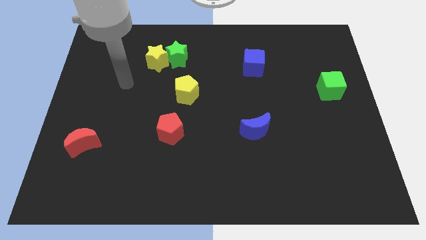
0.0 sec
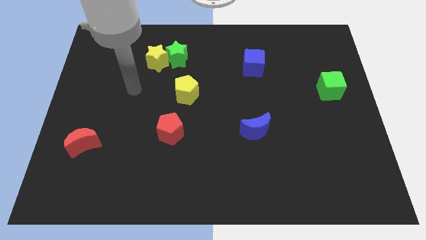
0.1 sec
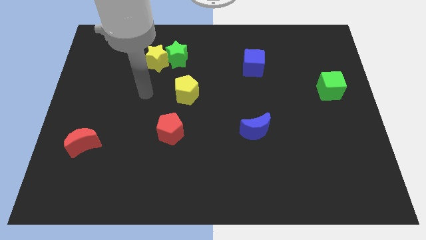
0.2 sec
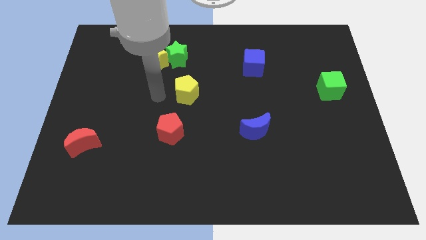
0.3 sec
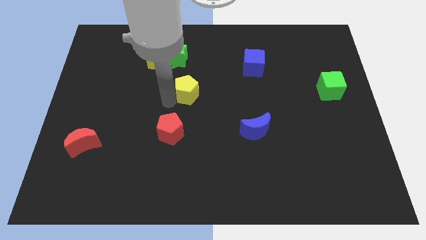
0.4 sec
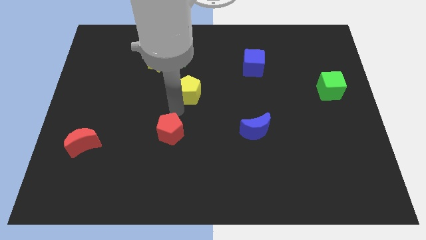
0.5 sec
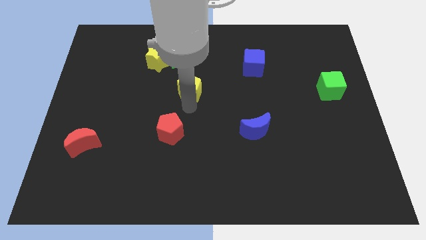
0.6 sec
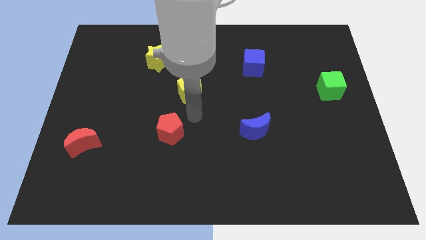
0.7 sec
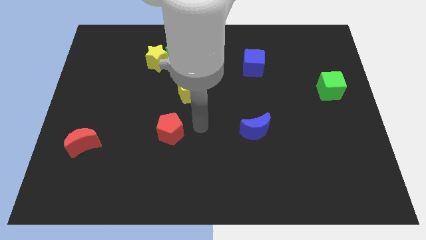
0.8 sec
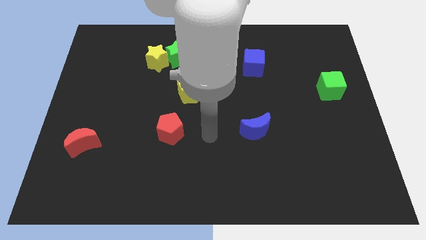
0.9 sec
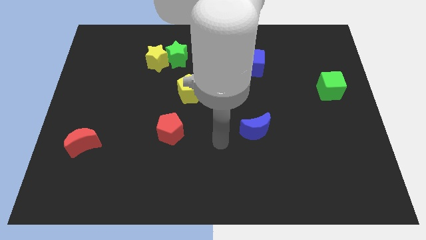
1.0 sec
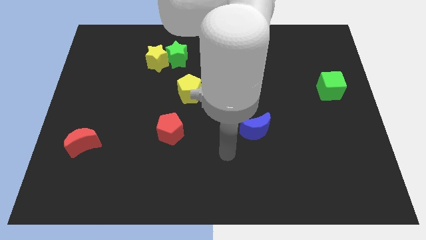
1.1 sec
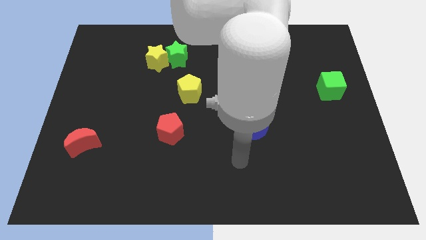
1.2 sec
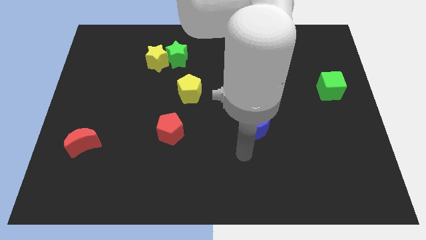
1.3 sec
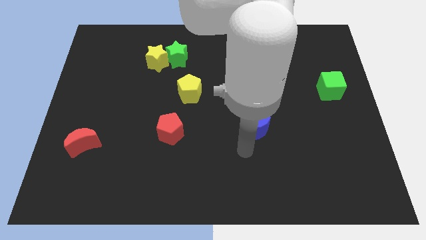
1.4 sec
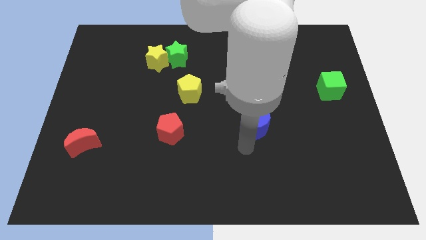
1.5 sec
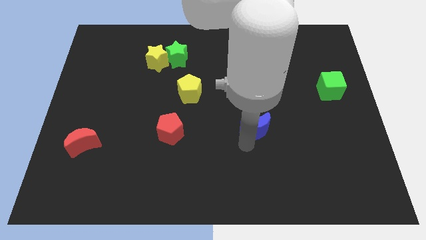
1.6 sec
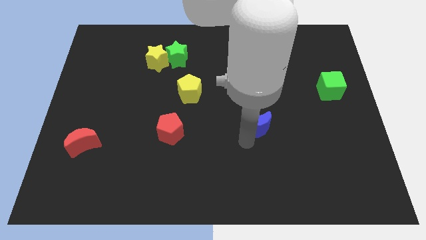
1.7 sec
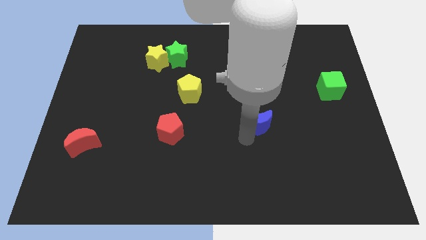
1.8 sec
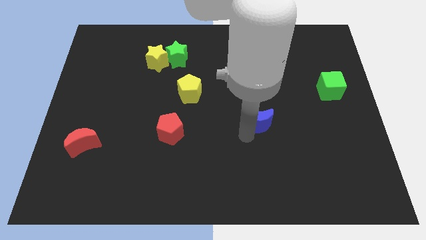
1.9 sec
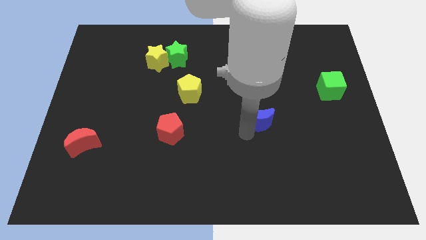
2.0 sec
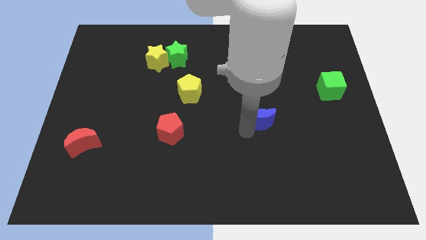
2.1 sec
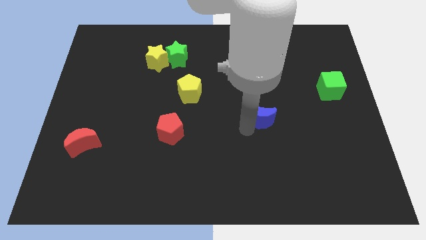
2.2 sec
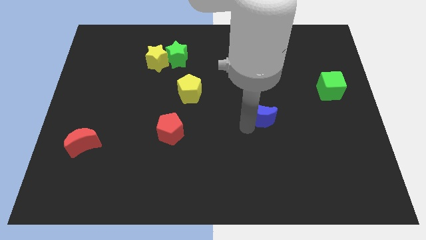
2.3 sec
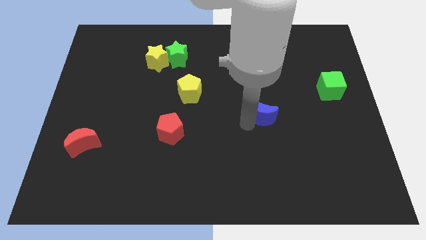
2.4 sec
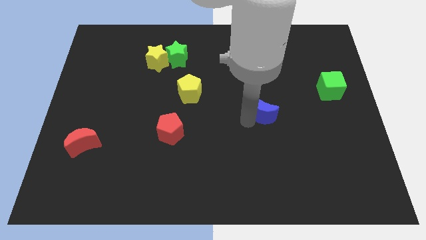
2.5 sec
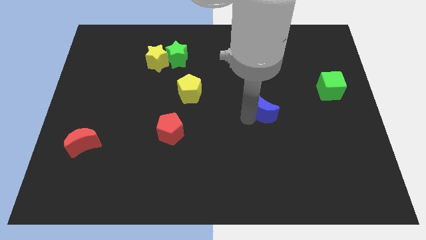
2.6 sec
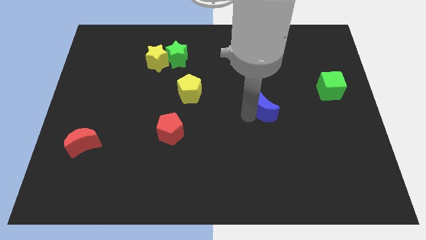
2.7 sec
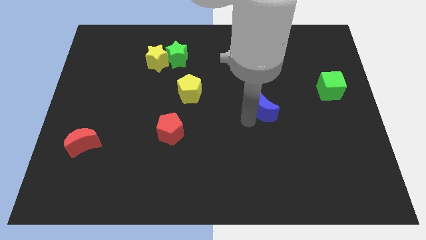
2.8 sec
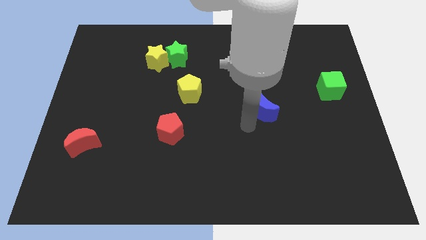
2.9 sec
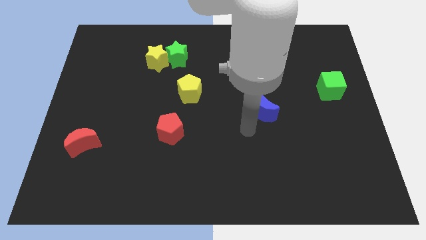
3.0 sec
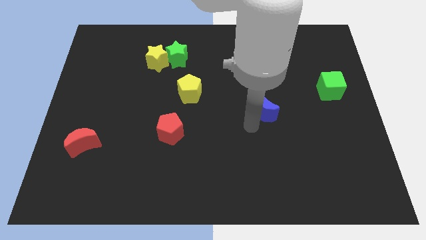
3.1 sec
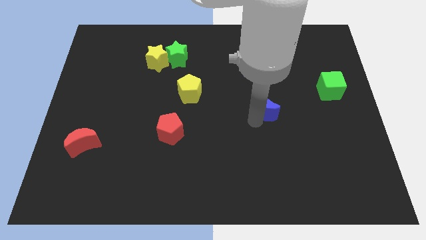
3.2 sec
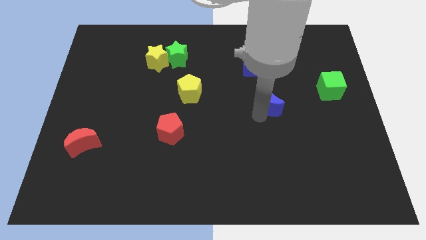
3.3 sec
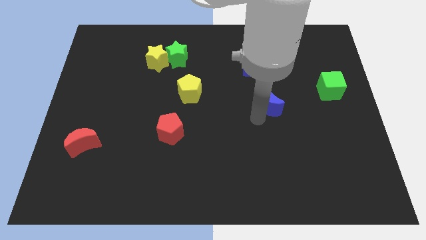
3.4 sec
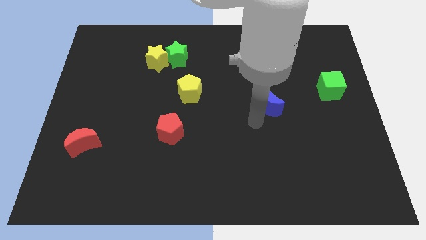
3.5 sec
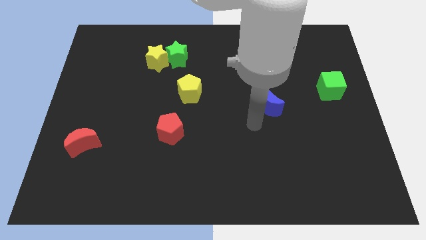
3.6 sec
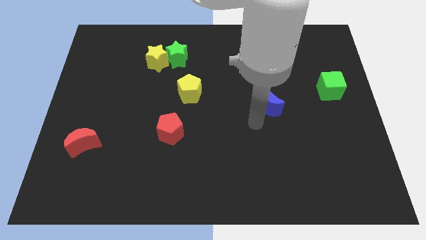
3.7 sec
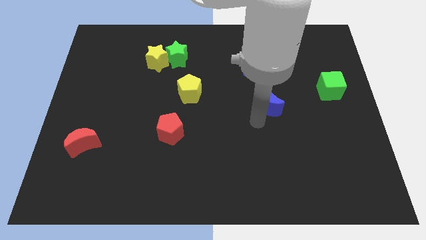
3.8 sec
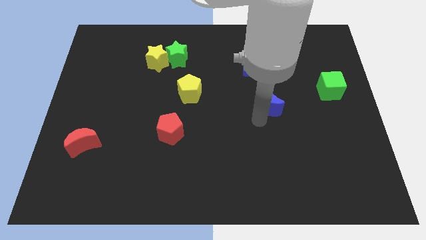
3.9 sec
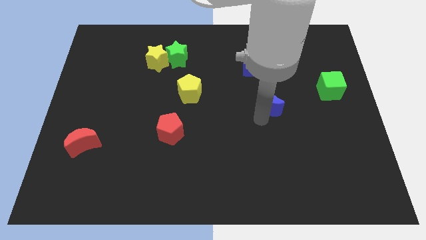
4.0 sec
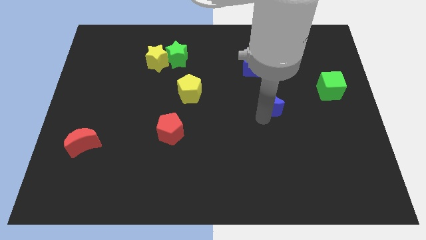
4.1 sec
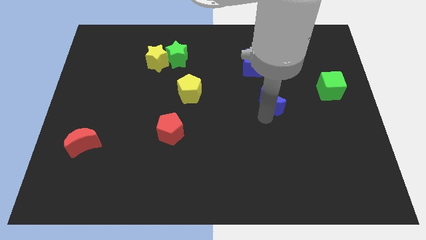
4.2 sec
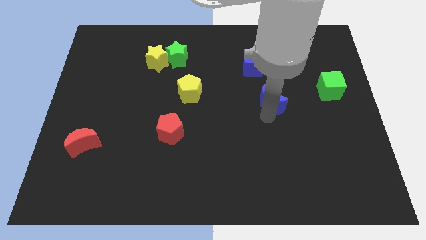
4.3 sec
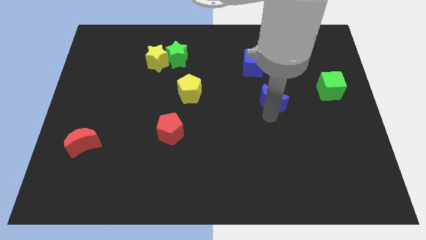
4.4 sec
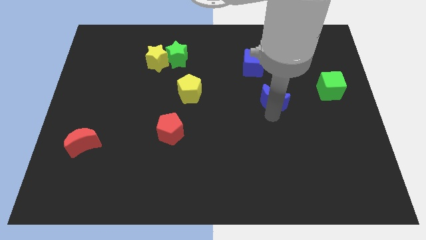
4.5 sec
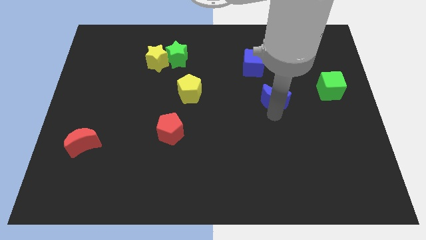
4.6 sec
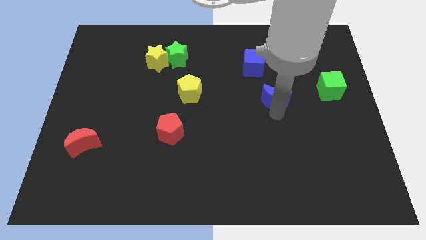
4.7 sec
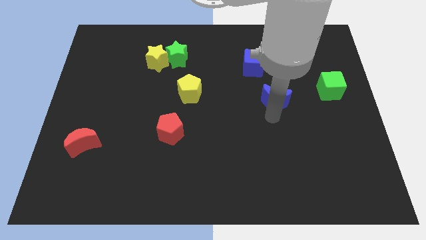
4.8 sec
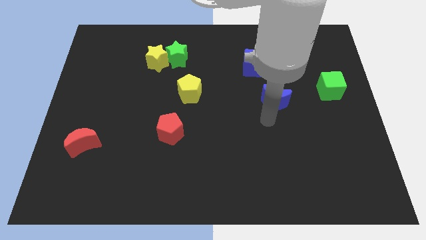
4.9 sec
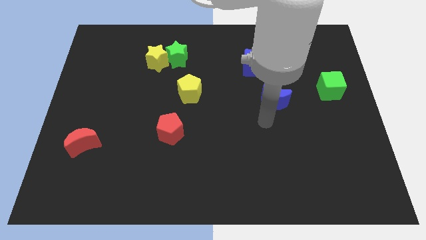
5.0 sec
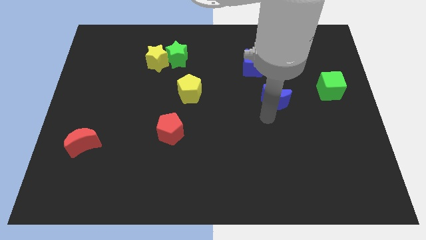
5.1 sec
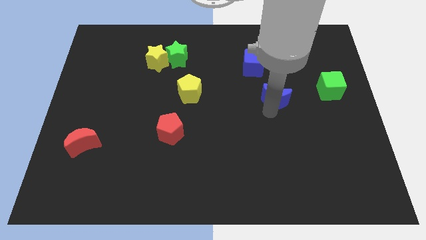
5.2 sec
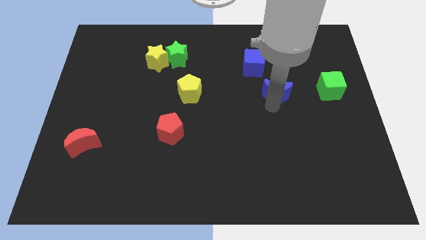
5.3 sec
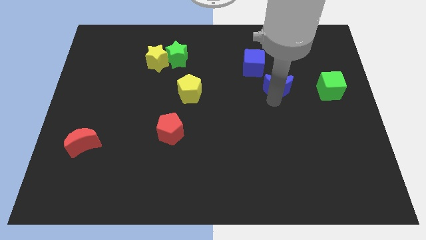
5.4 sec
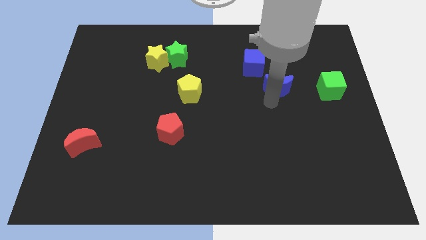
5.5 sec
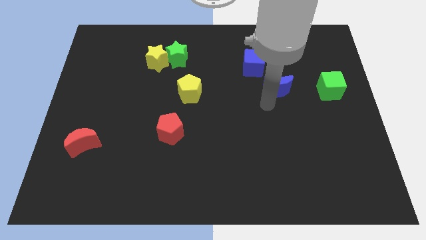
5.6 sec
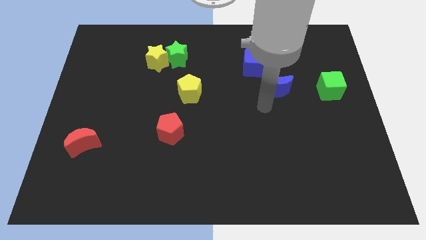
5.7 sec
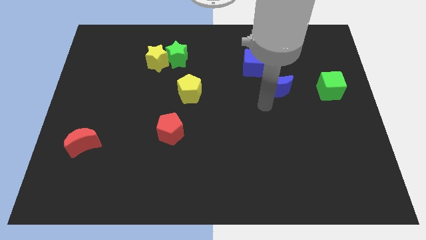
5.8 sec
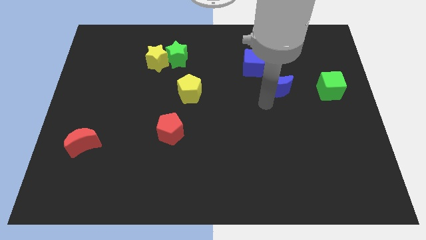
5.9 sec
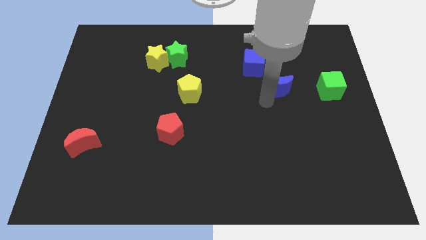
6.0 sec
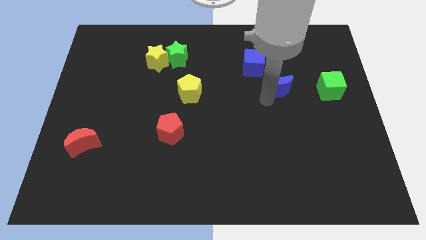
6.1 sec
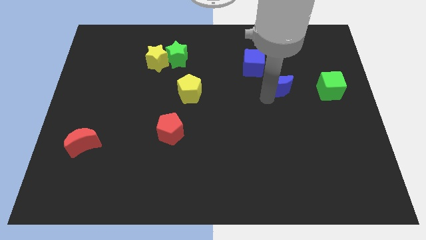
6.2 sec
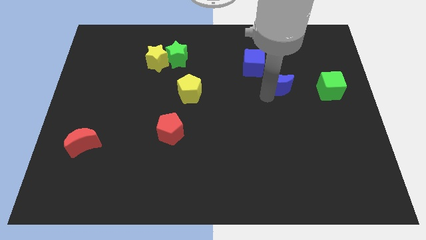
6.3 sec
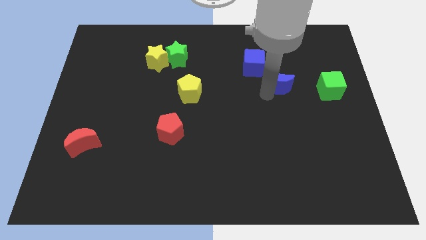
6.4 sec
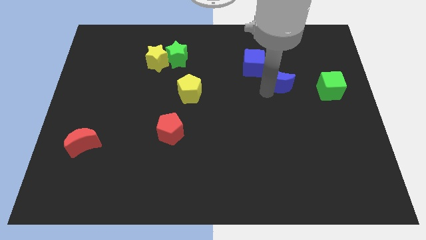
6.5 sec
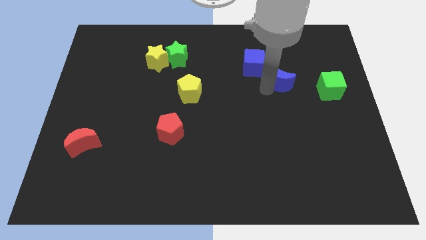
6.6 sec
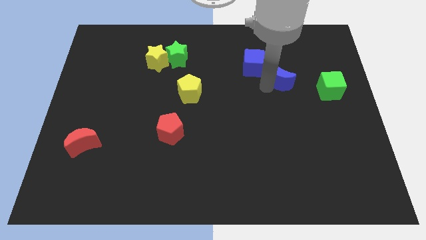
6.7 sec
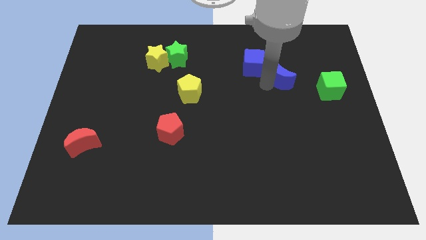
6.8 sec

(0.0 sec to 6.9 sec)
slide the blue moon to the right of the blue cube
